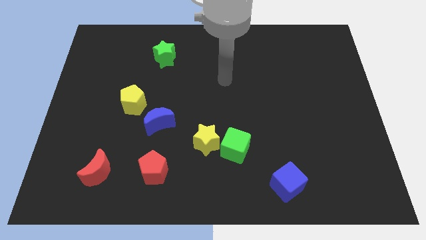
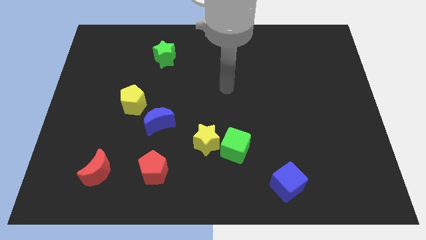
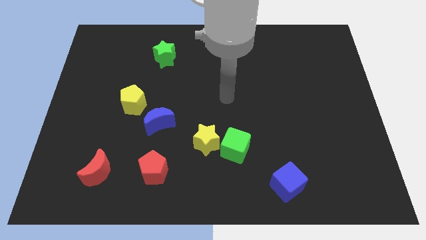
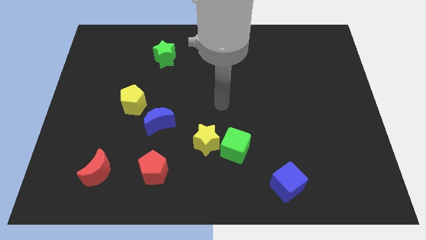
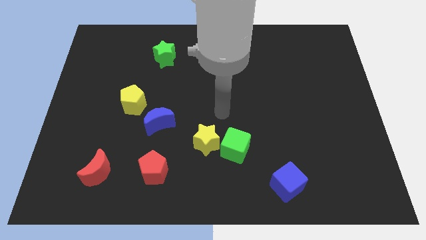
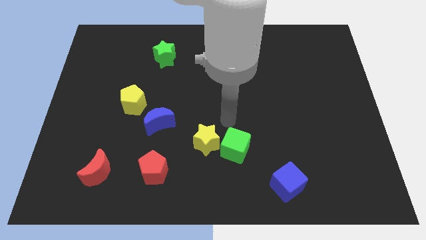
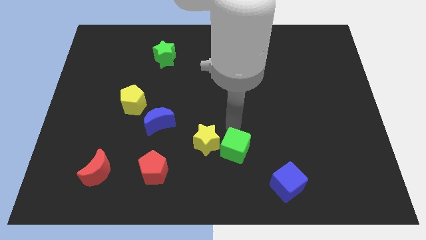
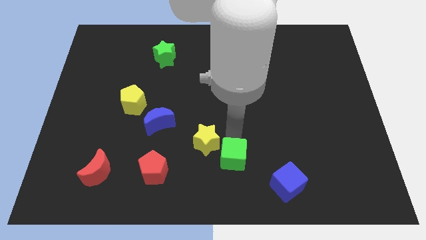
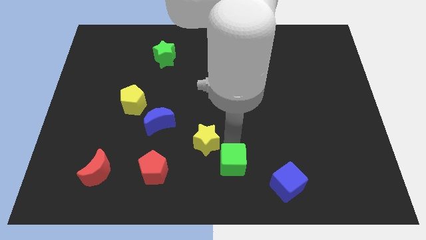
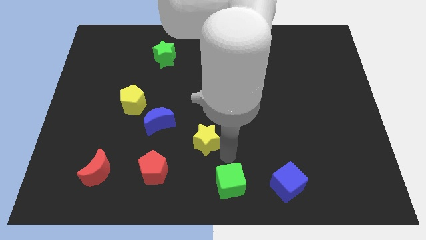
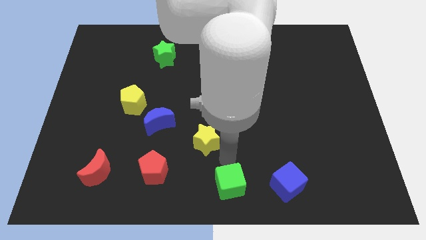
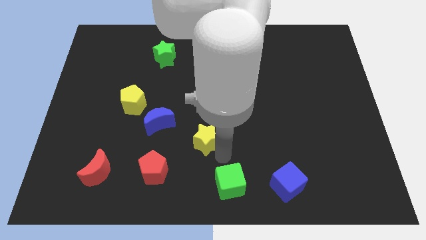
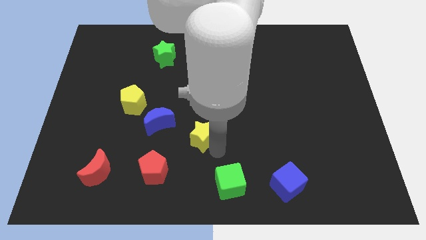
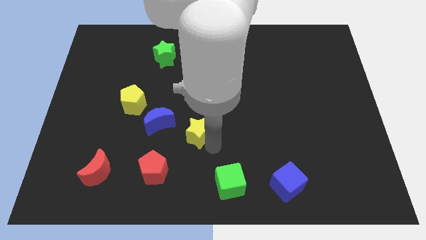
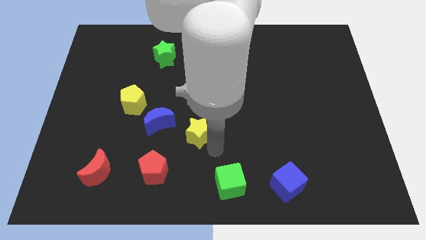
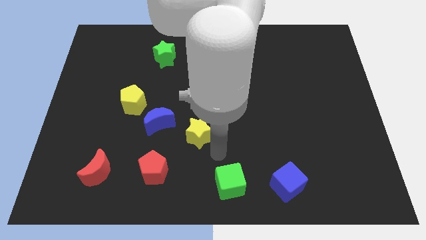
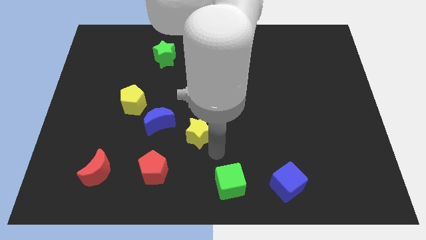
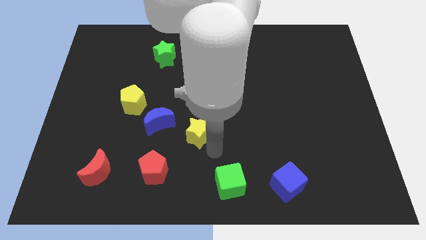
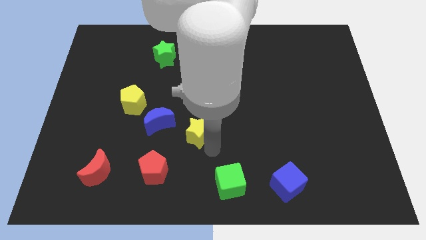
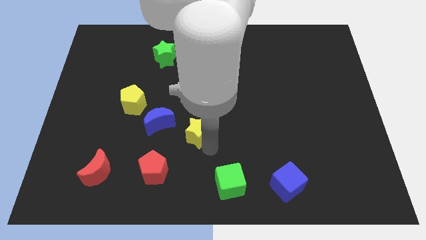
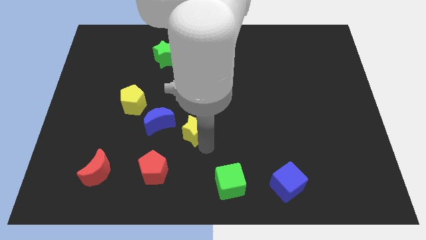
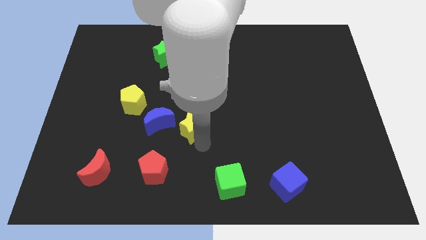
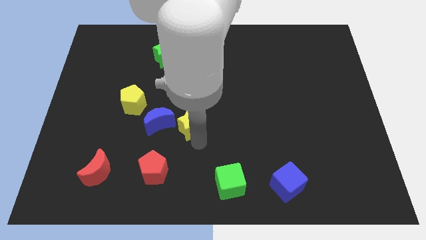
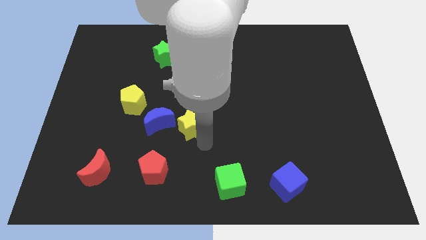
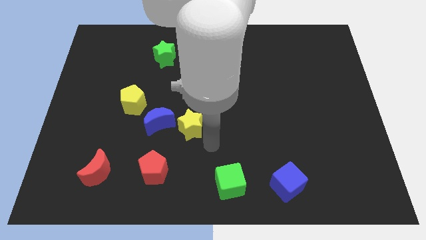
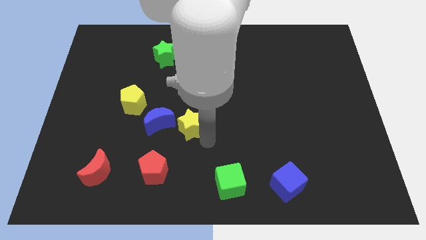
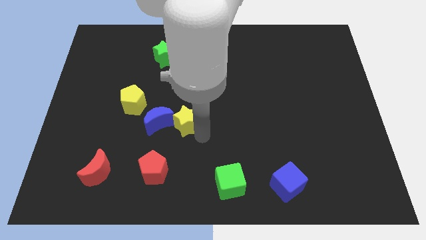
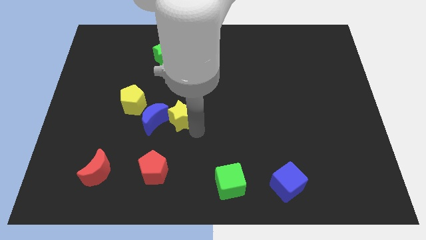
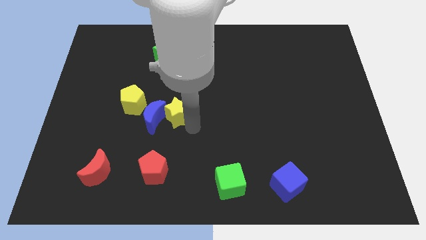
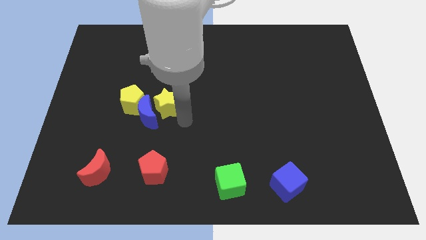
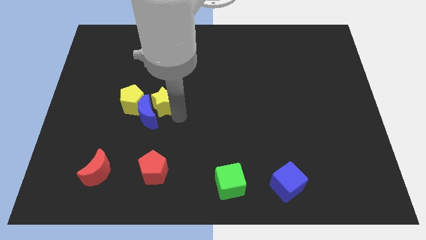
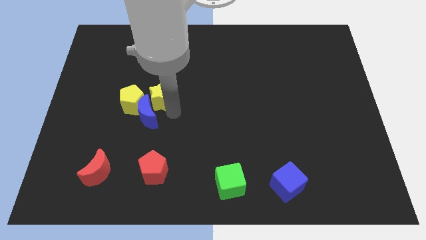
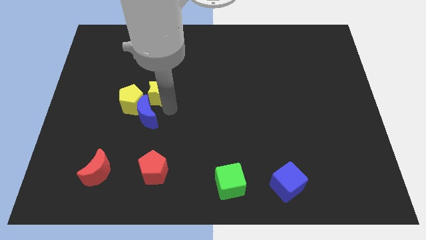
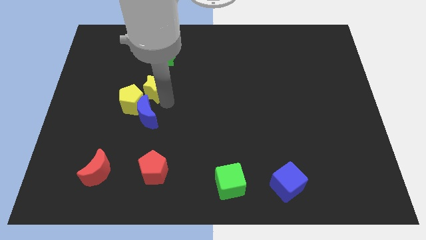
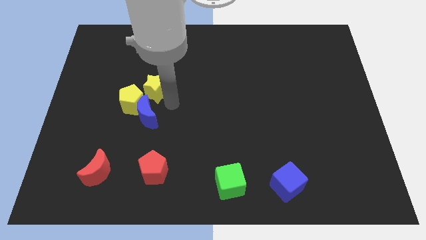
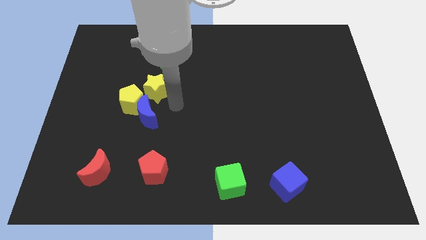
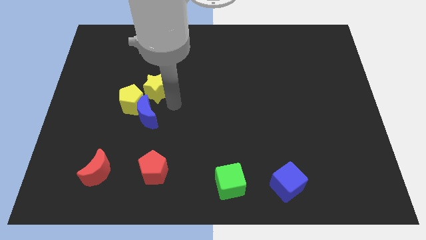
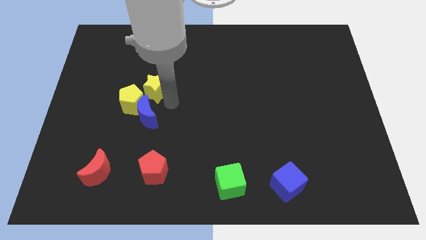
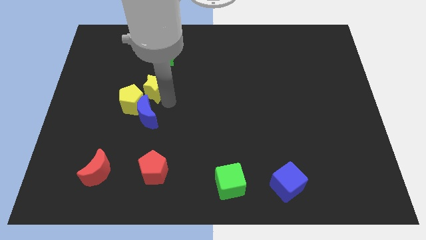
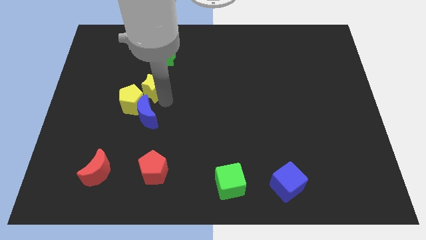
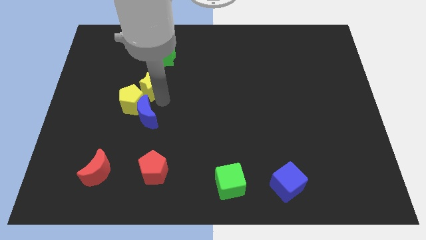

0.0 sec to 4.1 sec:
slide the yellow star upwards and then left

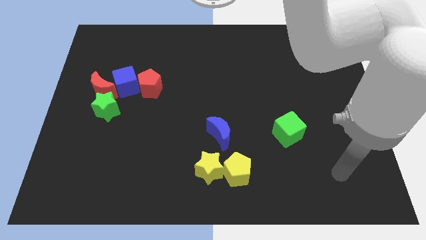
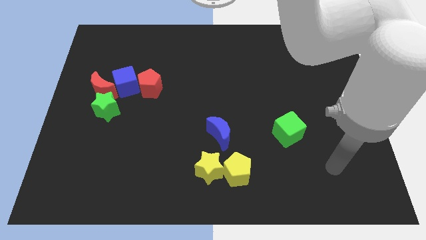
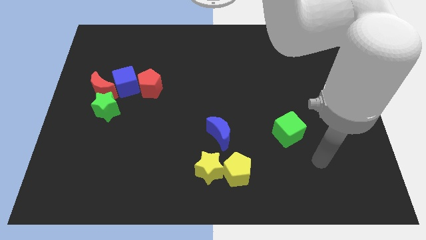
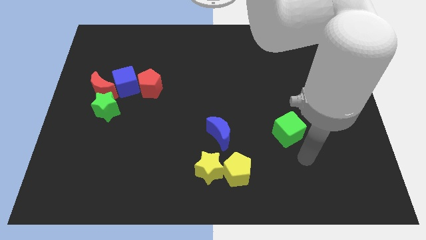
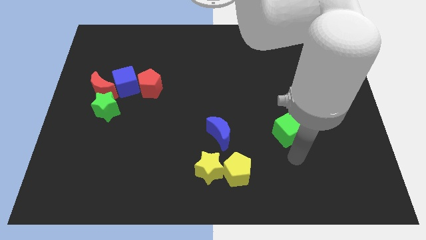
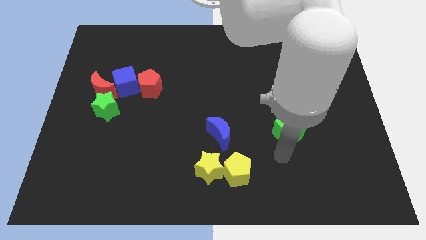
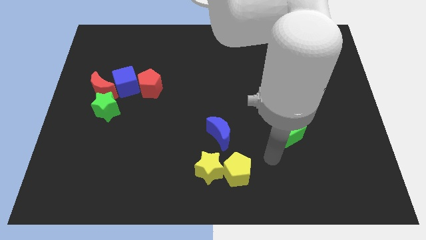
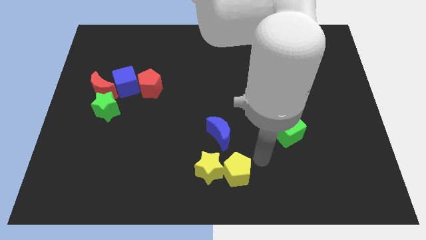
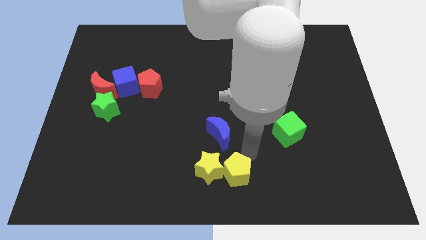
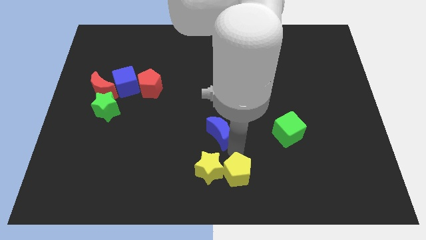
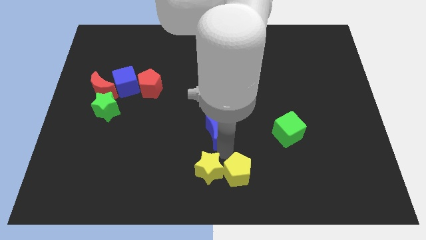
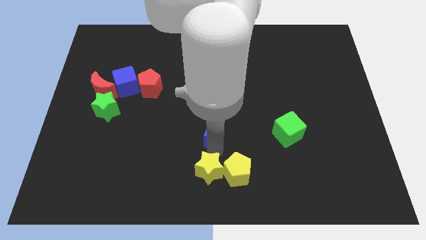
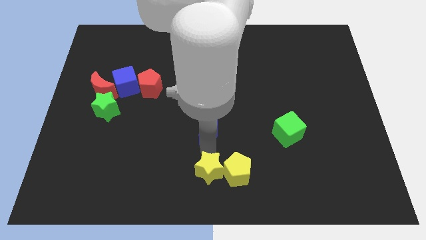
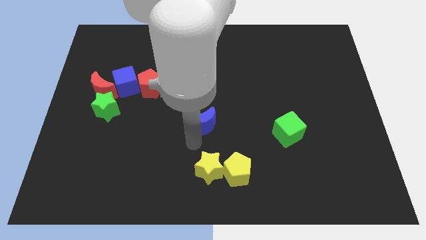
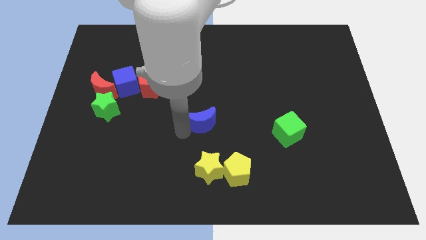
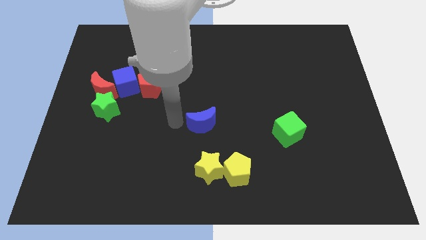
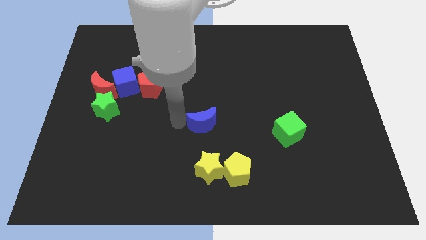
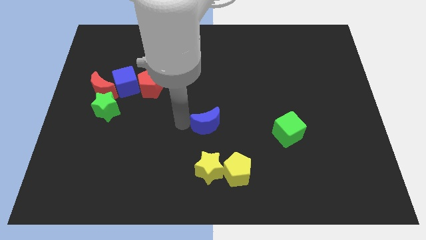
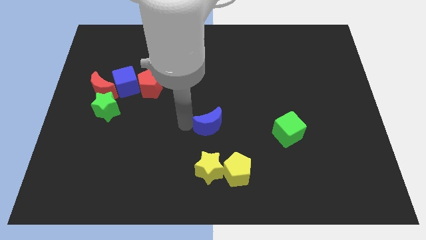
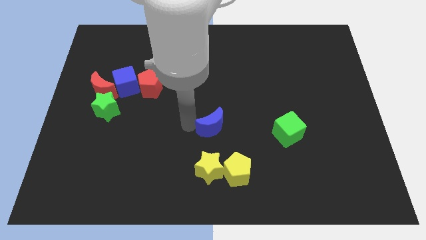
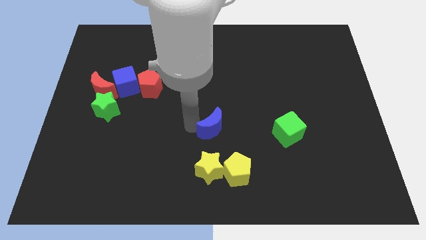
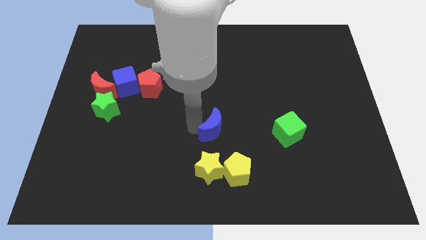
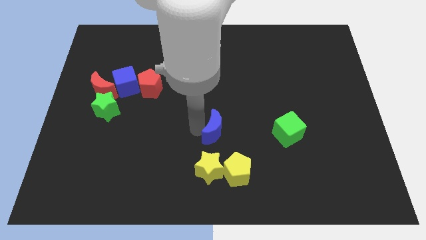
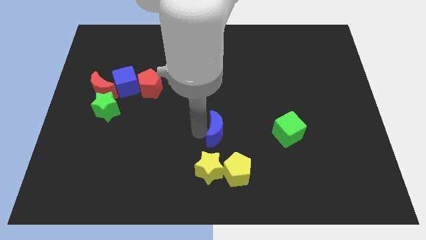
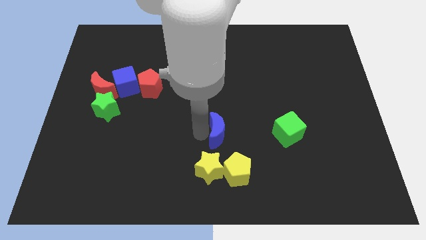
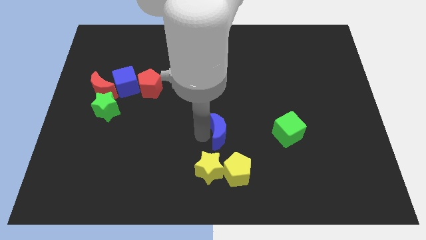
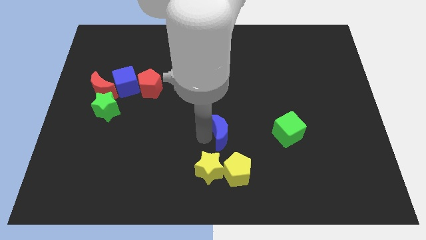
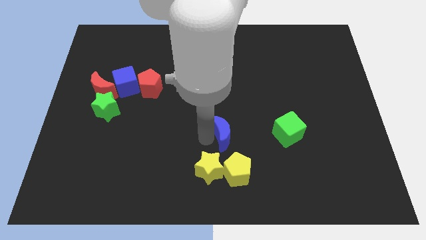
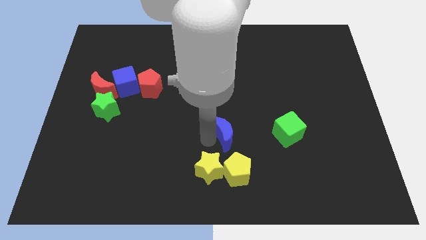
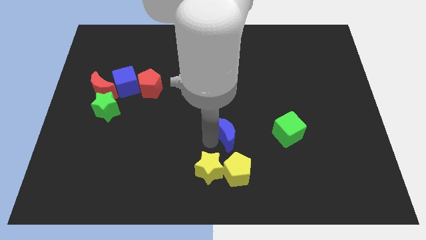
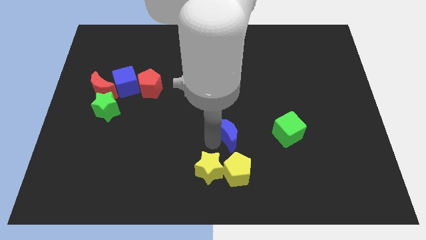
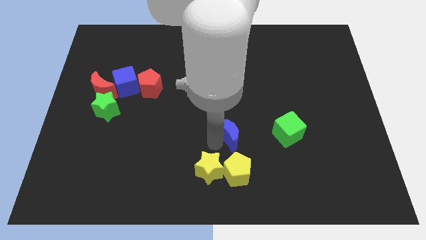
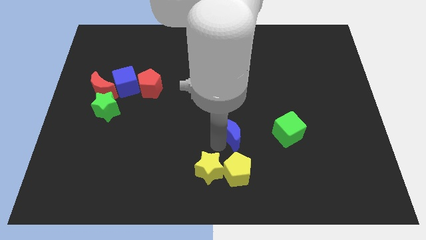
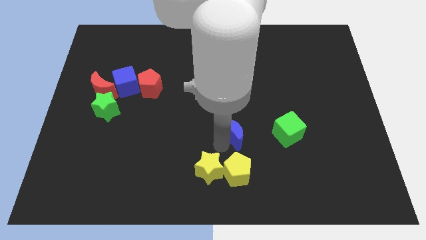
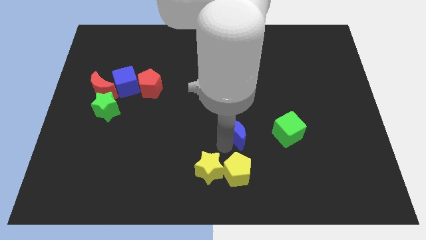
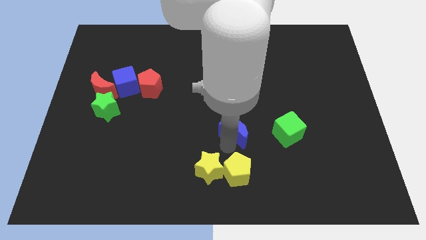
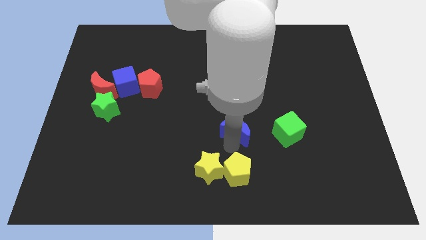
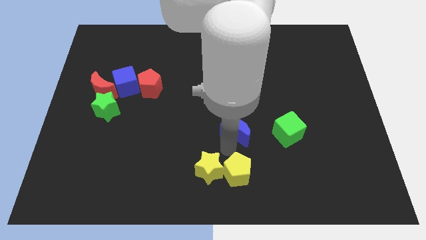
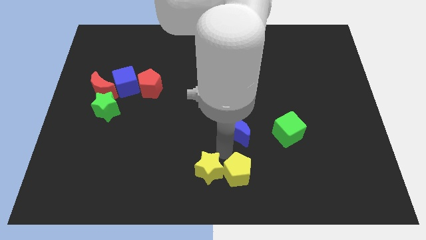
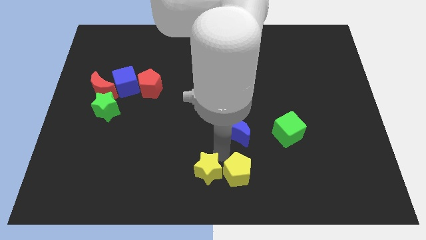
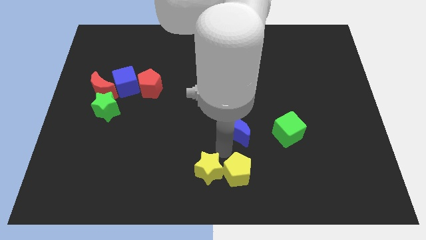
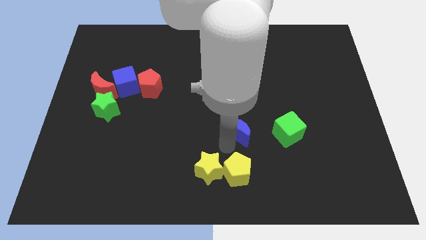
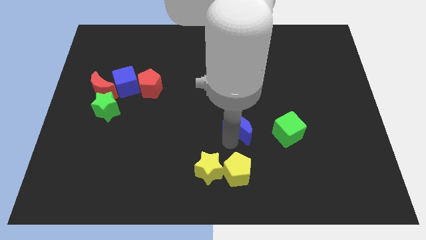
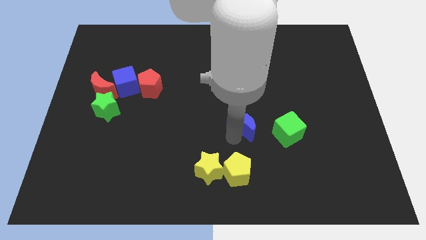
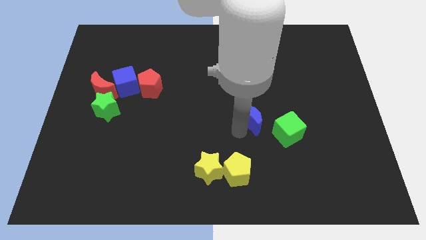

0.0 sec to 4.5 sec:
move the blue moon diagonally upwards and to the right slightly
